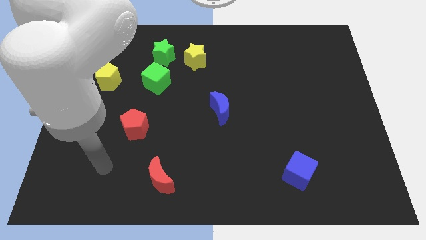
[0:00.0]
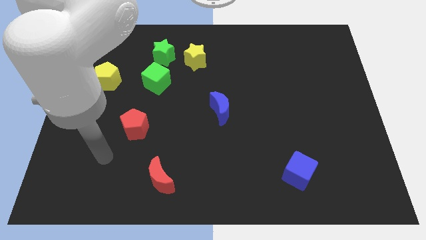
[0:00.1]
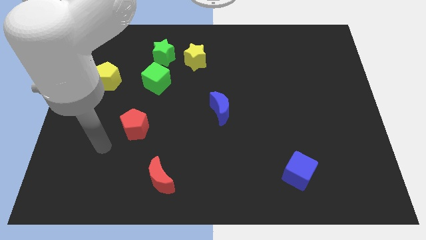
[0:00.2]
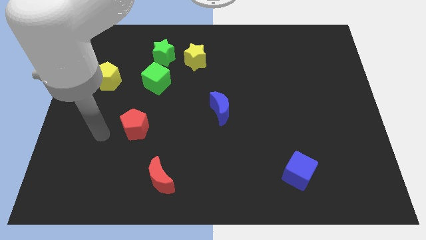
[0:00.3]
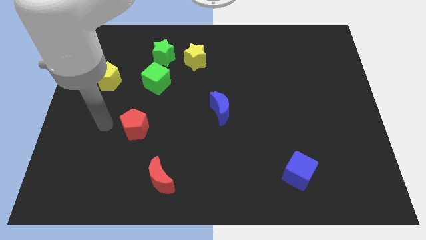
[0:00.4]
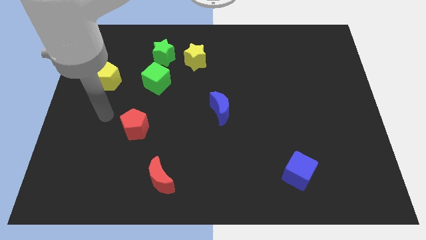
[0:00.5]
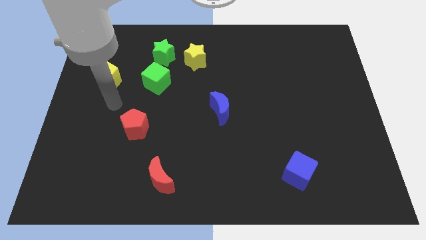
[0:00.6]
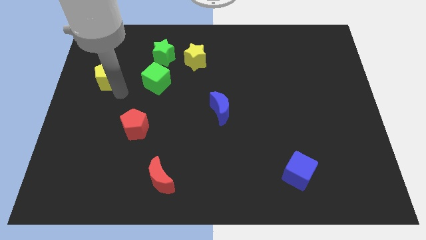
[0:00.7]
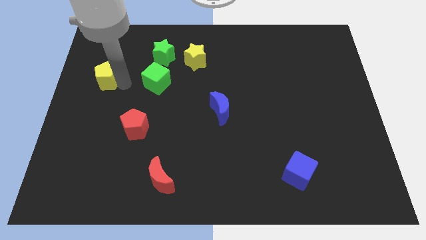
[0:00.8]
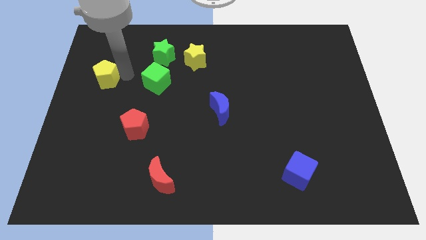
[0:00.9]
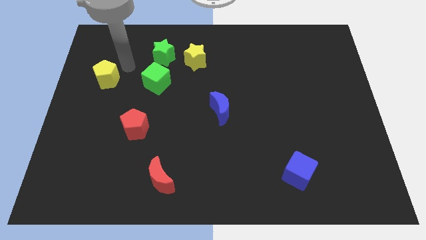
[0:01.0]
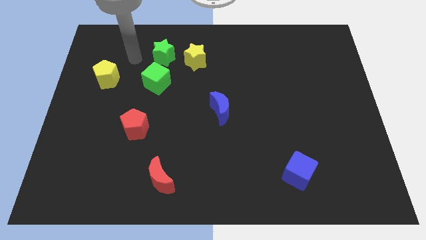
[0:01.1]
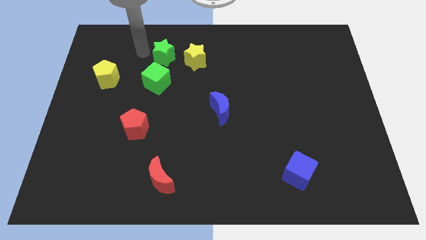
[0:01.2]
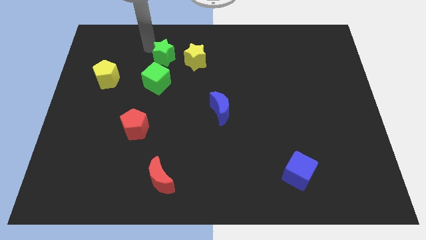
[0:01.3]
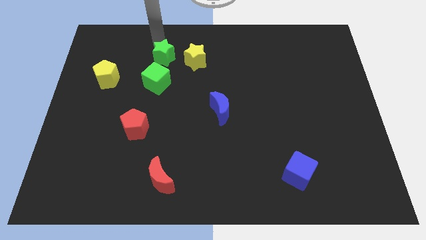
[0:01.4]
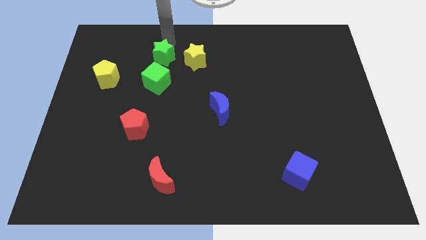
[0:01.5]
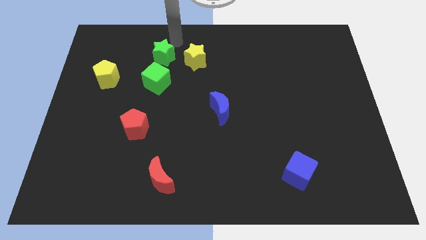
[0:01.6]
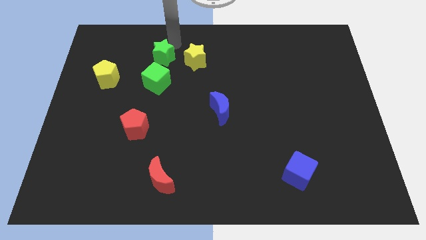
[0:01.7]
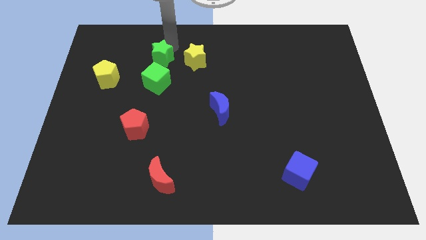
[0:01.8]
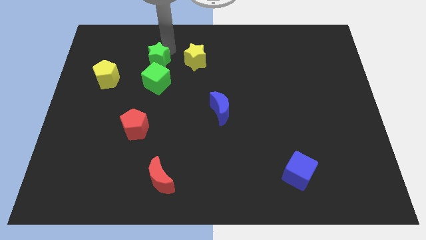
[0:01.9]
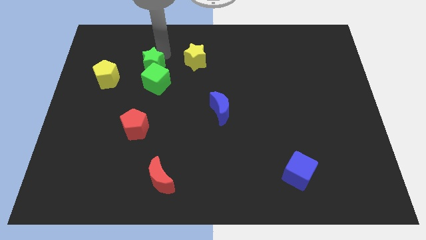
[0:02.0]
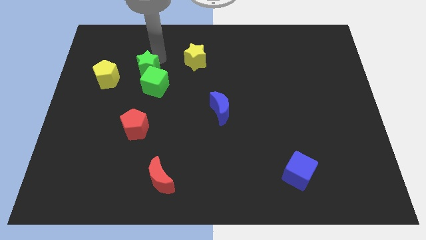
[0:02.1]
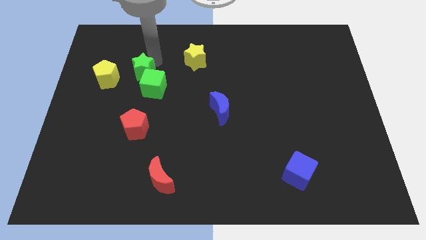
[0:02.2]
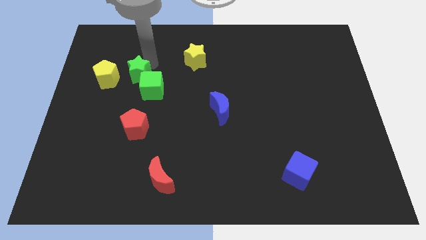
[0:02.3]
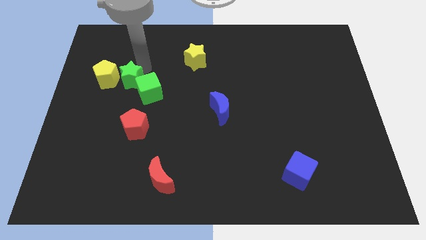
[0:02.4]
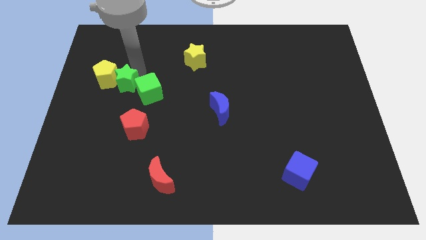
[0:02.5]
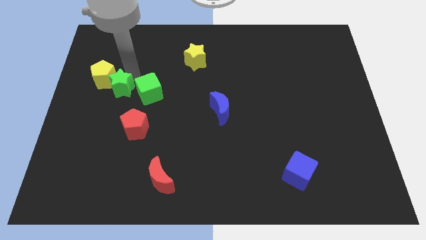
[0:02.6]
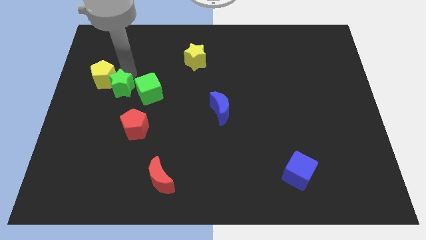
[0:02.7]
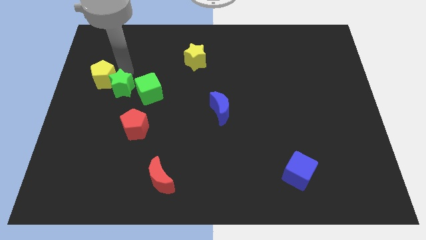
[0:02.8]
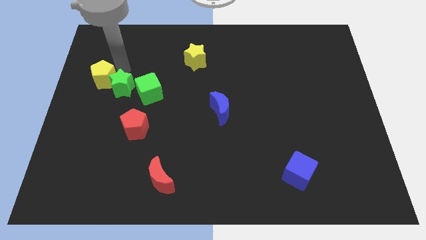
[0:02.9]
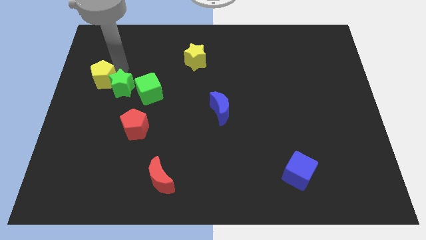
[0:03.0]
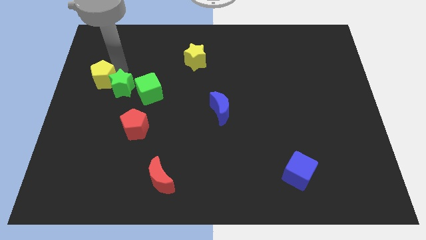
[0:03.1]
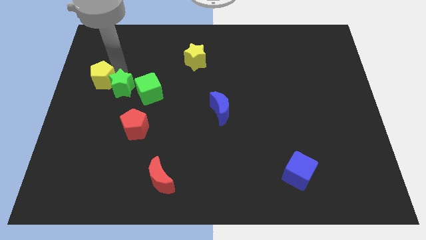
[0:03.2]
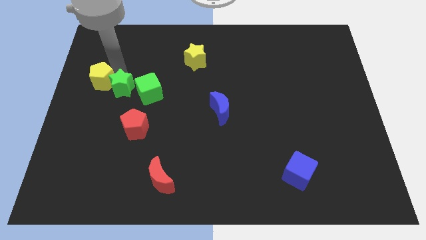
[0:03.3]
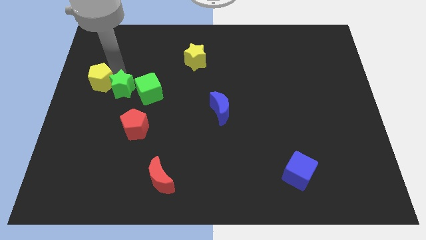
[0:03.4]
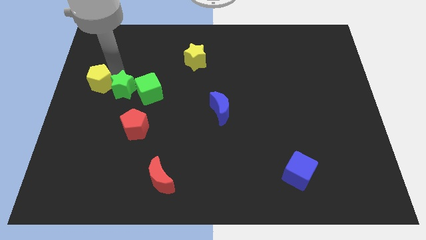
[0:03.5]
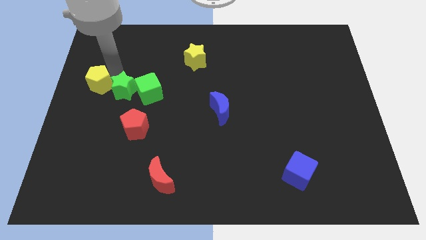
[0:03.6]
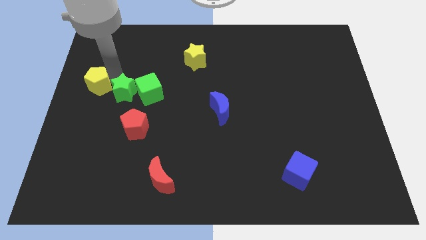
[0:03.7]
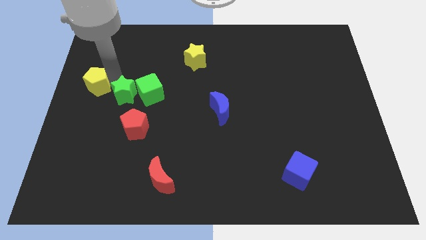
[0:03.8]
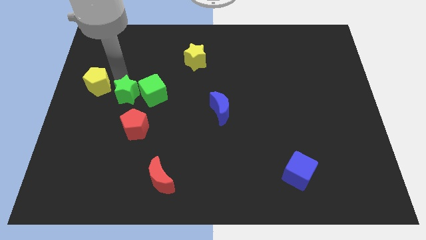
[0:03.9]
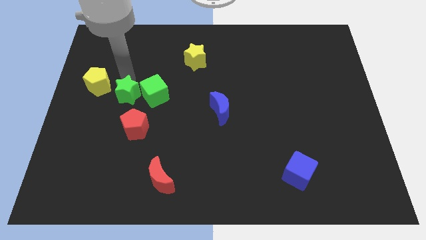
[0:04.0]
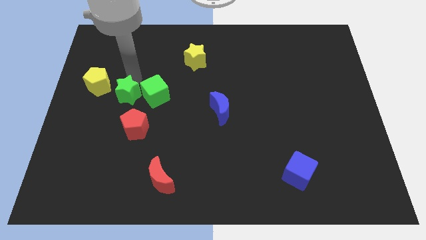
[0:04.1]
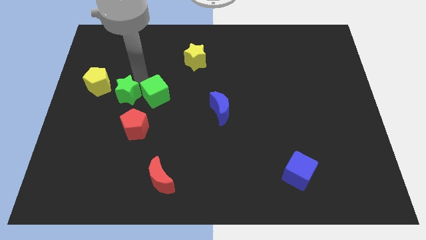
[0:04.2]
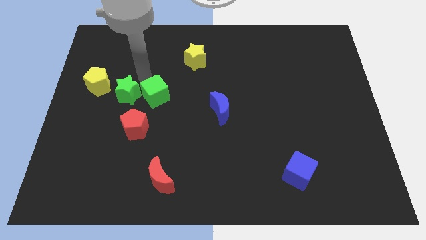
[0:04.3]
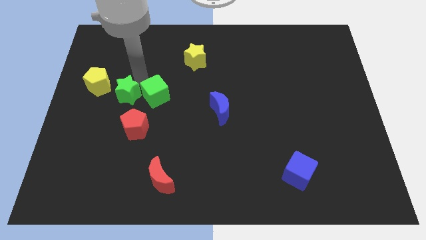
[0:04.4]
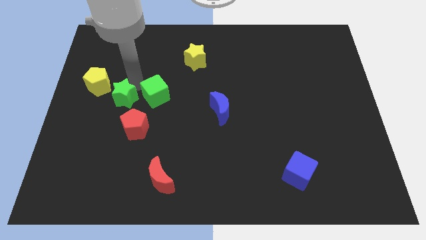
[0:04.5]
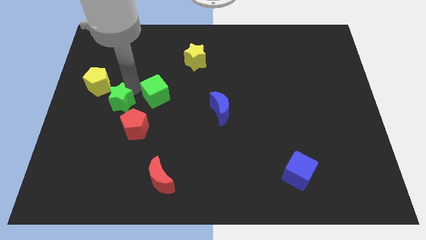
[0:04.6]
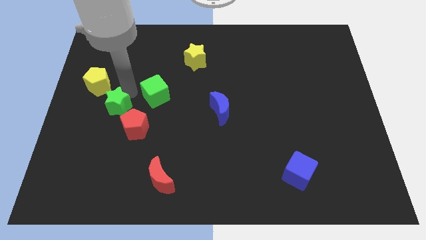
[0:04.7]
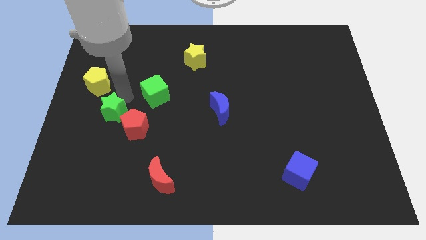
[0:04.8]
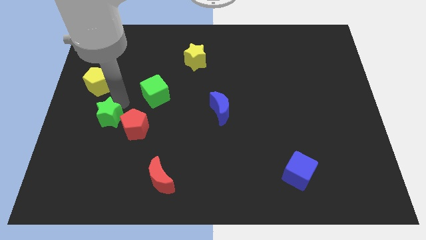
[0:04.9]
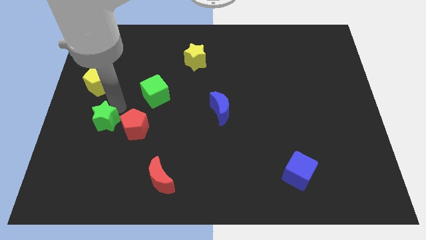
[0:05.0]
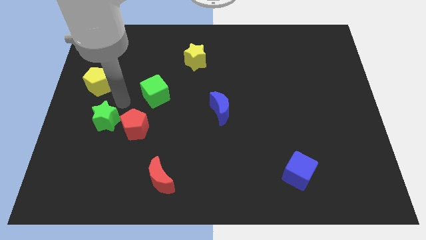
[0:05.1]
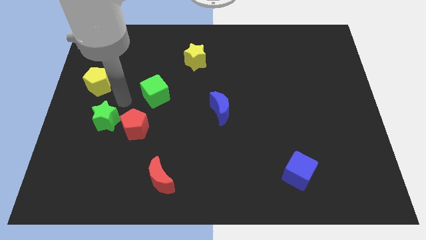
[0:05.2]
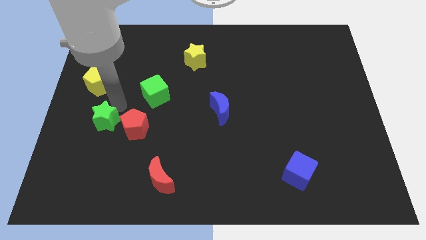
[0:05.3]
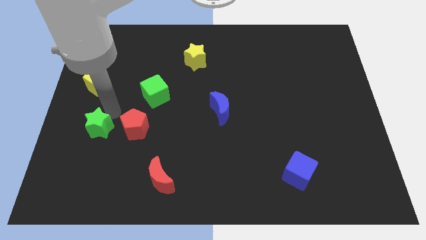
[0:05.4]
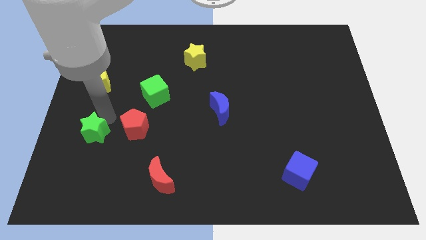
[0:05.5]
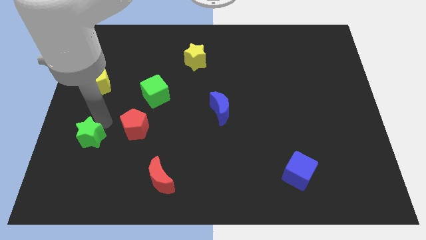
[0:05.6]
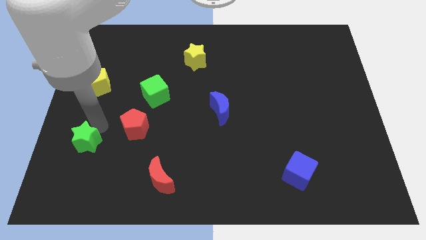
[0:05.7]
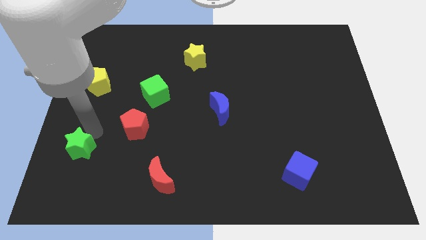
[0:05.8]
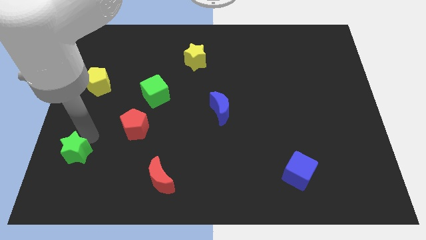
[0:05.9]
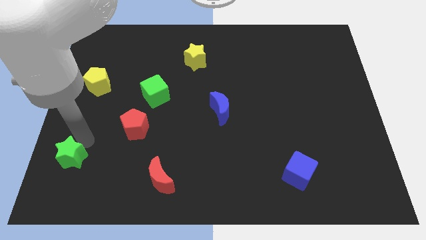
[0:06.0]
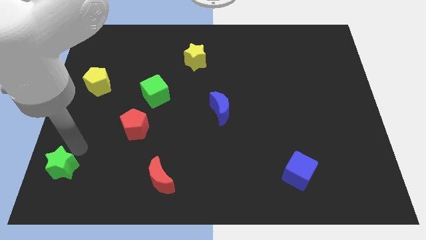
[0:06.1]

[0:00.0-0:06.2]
push the green star to the bottom left of the board

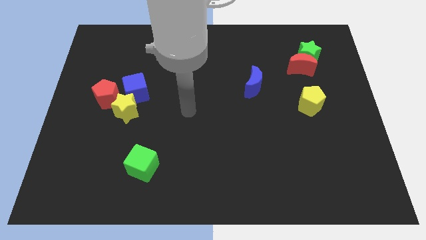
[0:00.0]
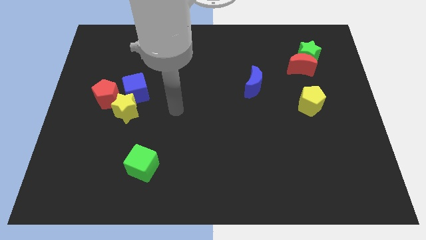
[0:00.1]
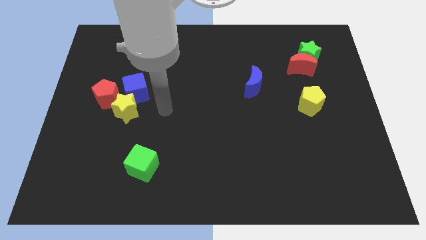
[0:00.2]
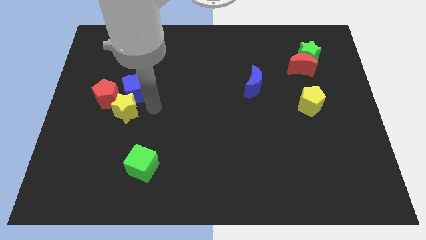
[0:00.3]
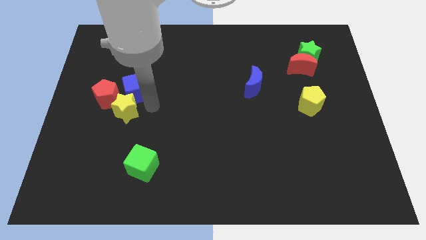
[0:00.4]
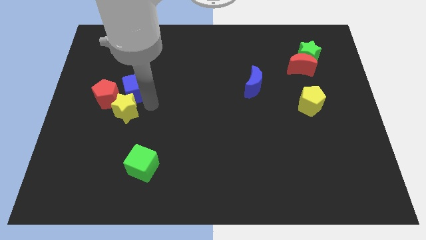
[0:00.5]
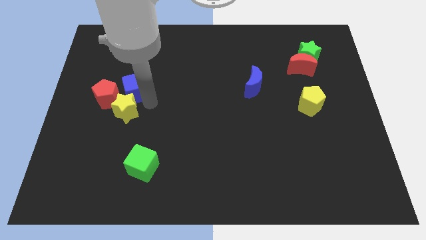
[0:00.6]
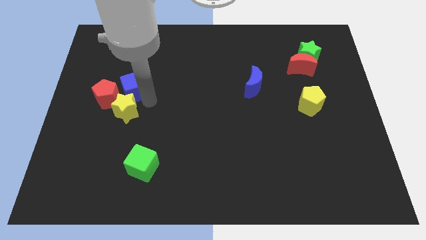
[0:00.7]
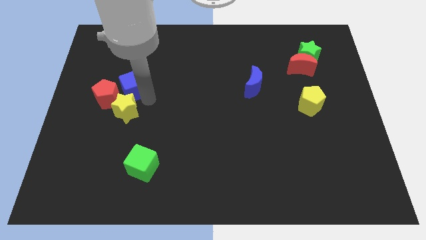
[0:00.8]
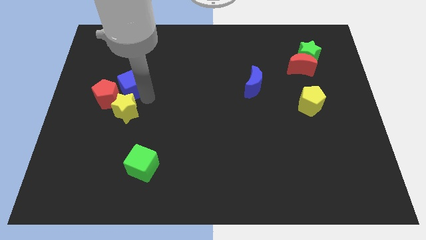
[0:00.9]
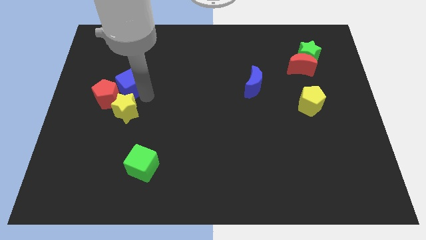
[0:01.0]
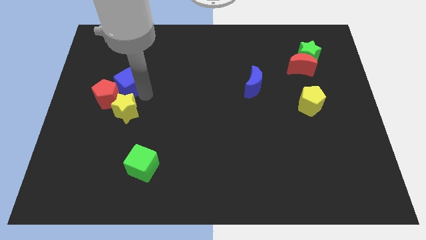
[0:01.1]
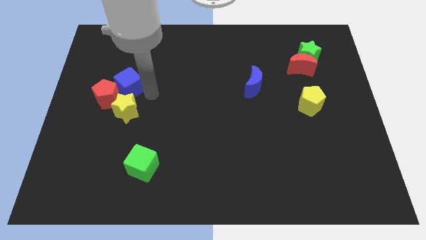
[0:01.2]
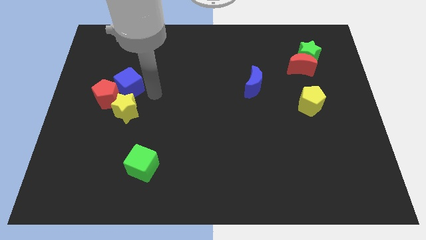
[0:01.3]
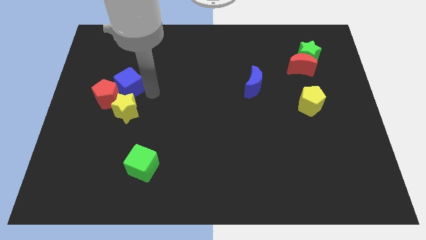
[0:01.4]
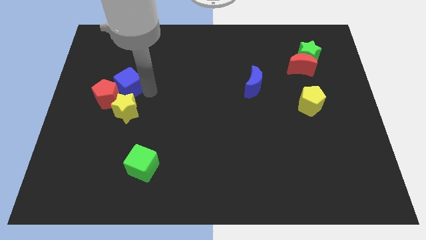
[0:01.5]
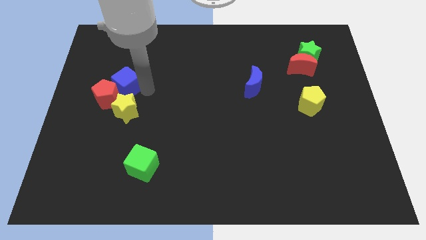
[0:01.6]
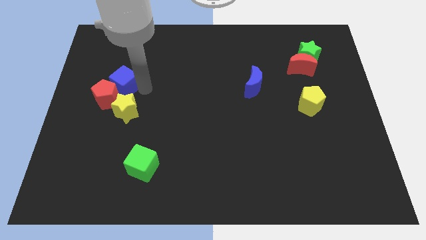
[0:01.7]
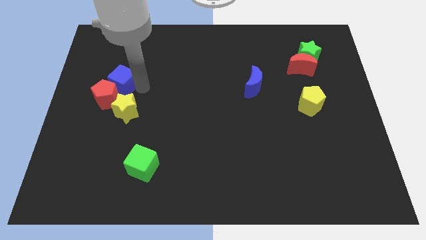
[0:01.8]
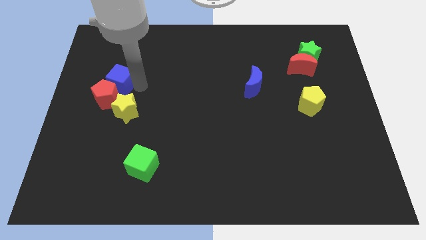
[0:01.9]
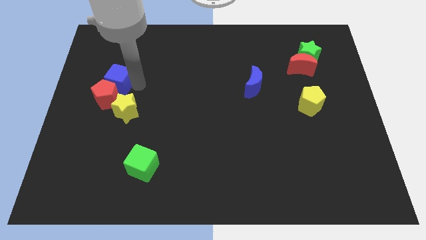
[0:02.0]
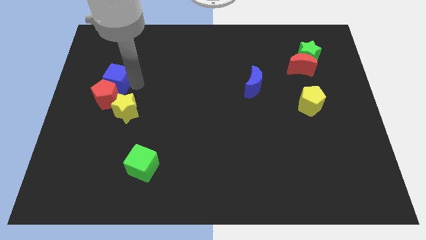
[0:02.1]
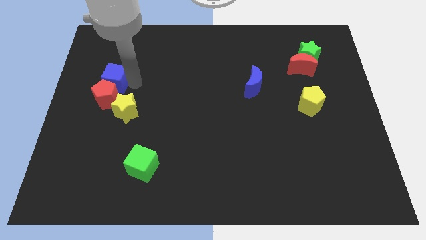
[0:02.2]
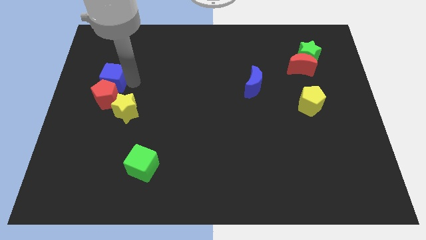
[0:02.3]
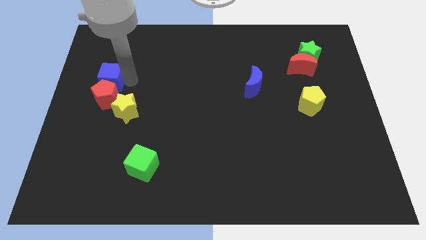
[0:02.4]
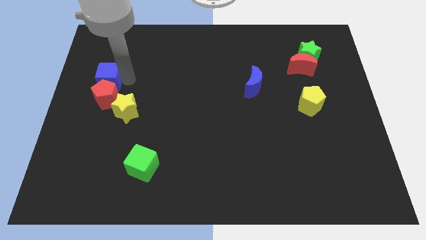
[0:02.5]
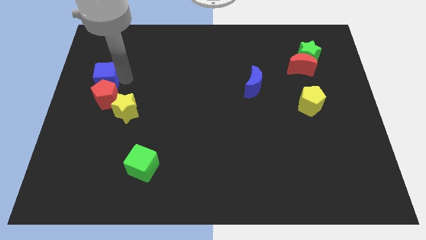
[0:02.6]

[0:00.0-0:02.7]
slide the blue cube to the left side
